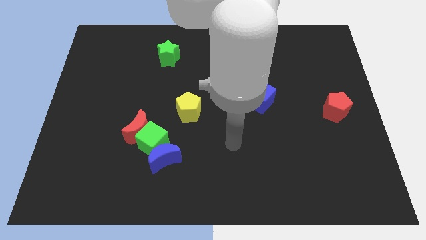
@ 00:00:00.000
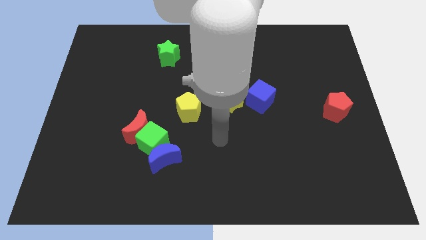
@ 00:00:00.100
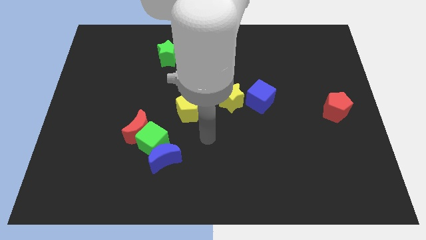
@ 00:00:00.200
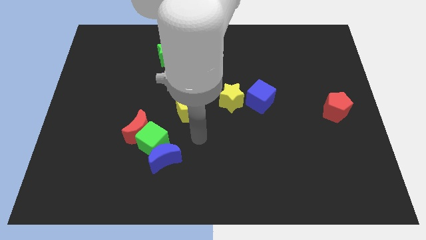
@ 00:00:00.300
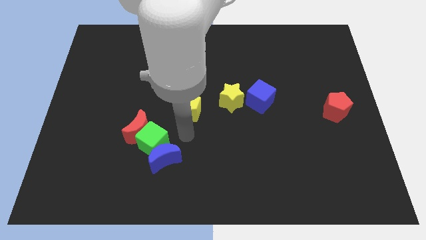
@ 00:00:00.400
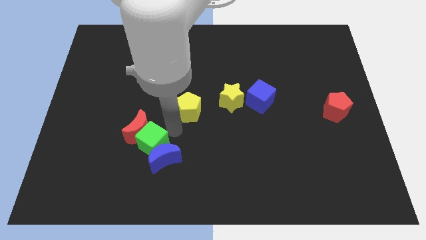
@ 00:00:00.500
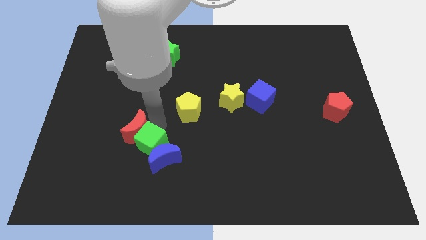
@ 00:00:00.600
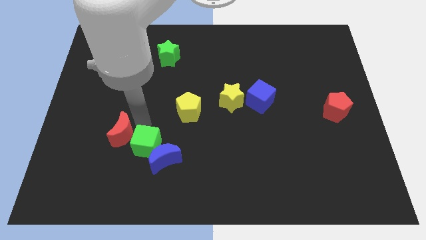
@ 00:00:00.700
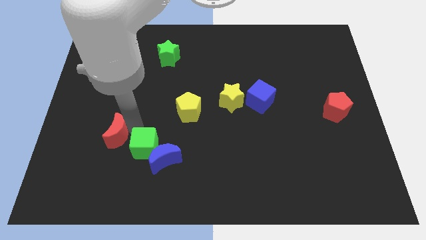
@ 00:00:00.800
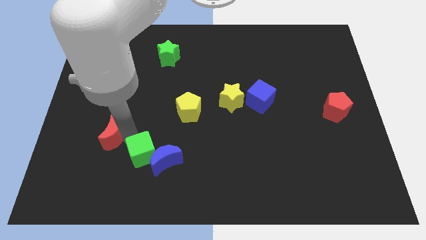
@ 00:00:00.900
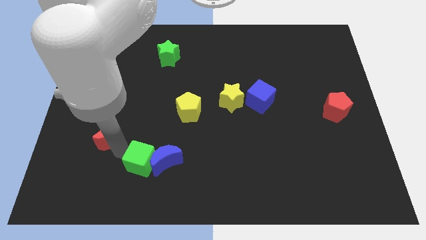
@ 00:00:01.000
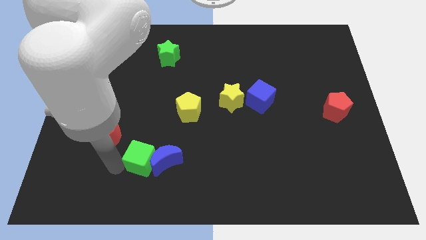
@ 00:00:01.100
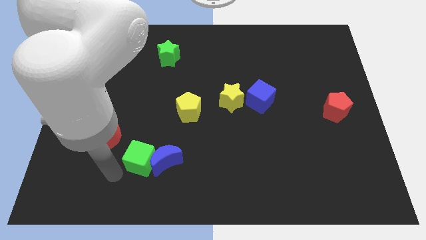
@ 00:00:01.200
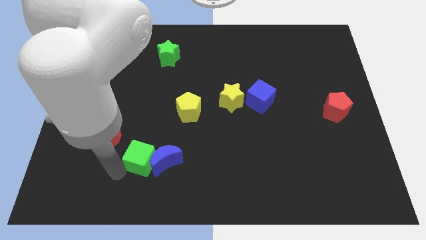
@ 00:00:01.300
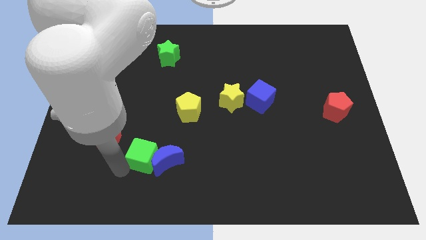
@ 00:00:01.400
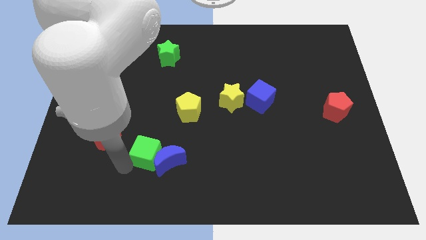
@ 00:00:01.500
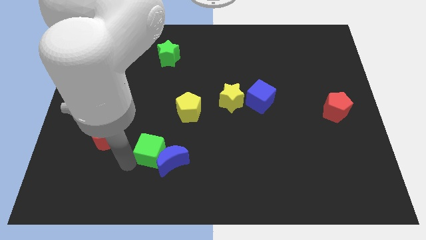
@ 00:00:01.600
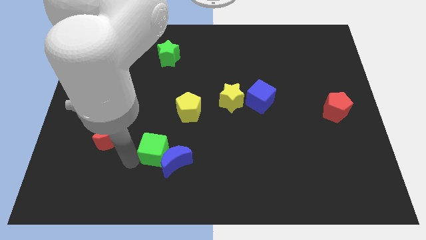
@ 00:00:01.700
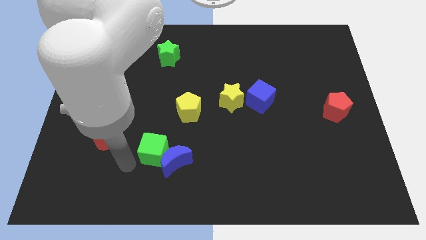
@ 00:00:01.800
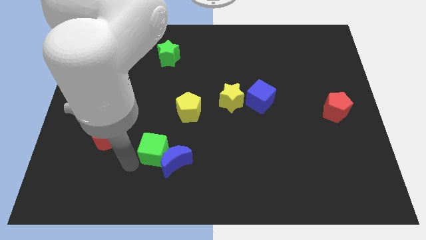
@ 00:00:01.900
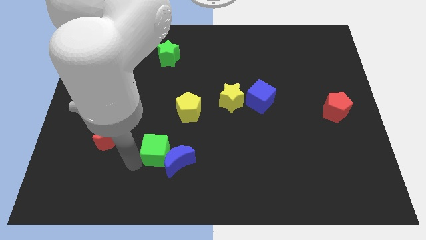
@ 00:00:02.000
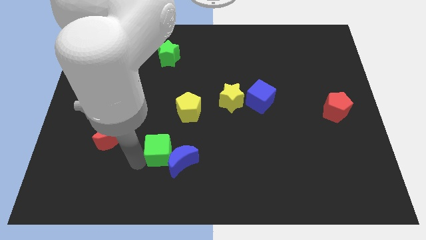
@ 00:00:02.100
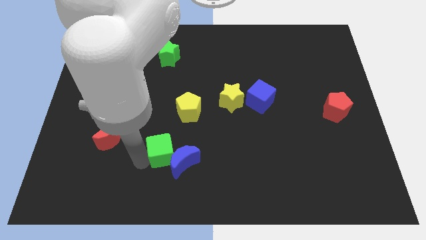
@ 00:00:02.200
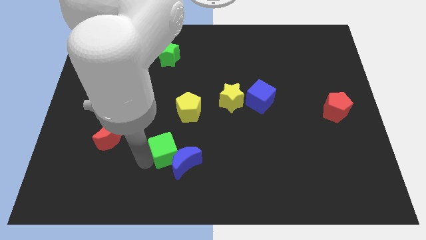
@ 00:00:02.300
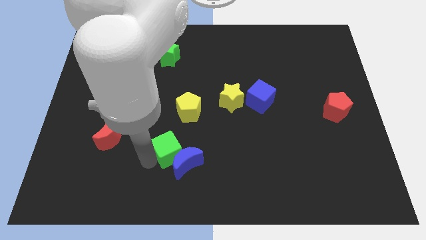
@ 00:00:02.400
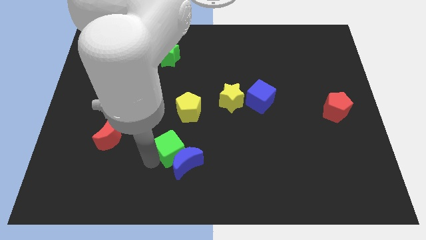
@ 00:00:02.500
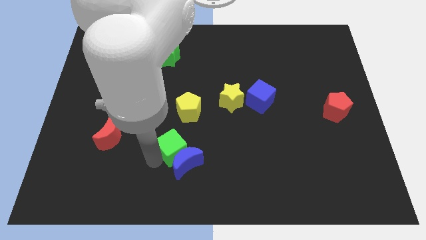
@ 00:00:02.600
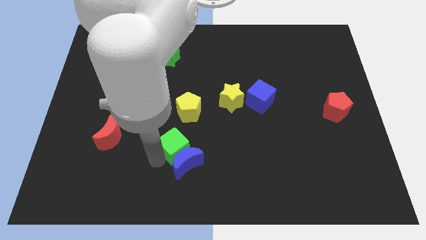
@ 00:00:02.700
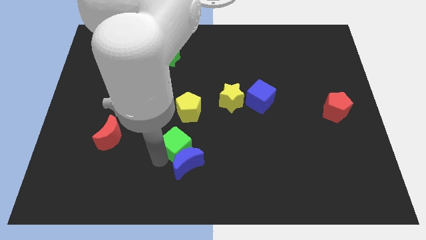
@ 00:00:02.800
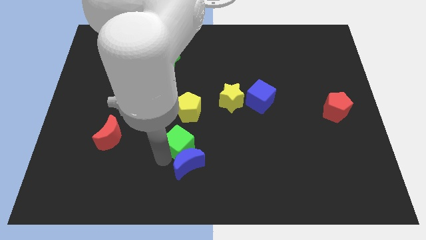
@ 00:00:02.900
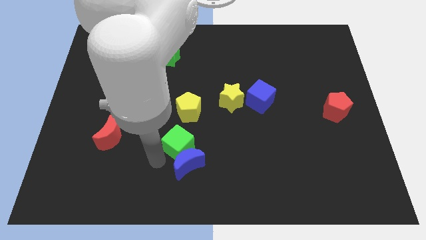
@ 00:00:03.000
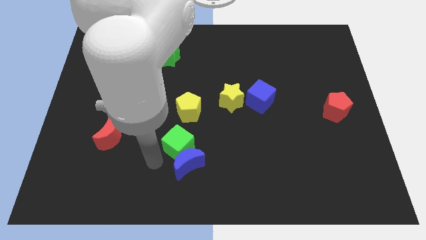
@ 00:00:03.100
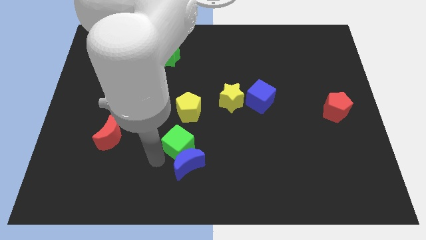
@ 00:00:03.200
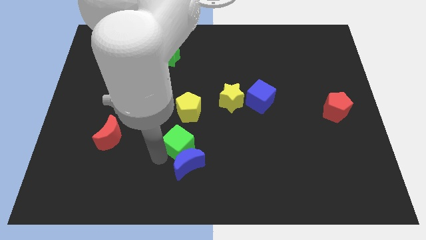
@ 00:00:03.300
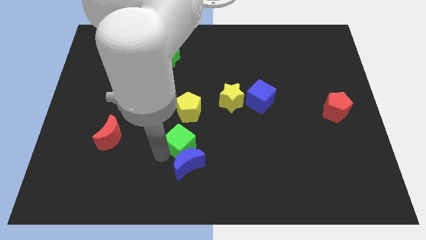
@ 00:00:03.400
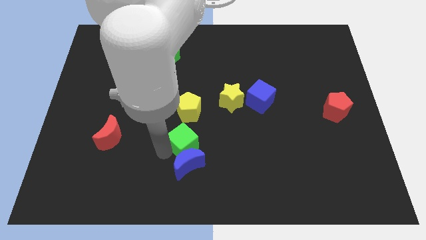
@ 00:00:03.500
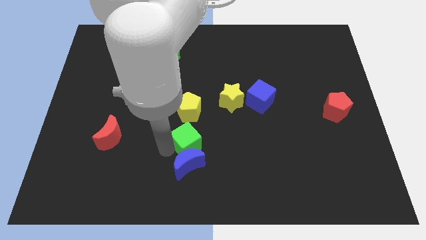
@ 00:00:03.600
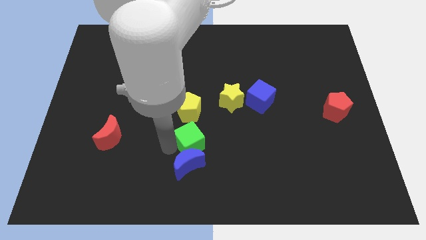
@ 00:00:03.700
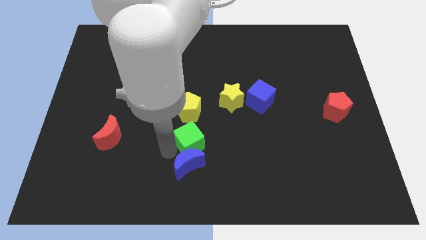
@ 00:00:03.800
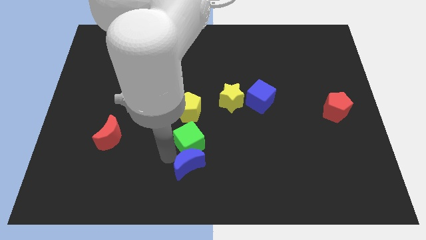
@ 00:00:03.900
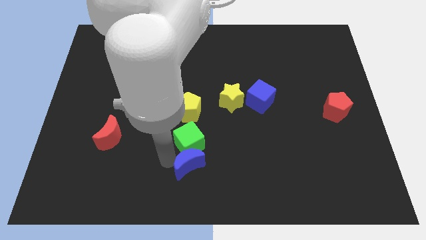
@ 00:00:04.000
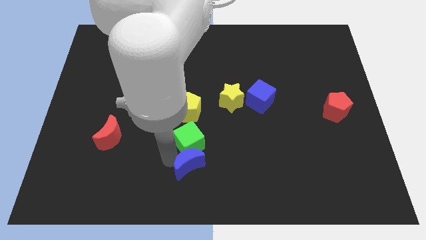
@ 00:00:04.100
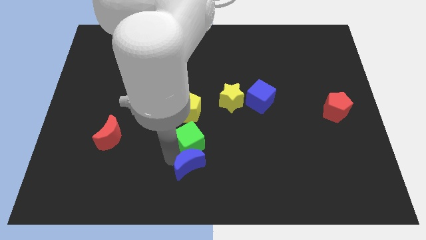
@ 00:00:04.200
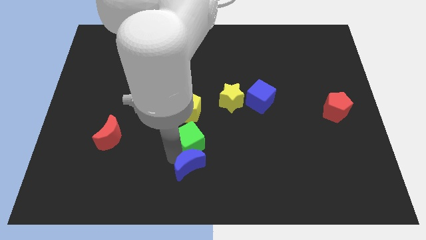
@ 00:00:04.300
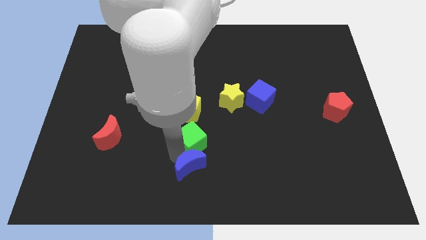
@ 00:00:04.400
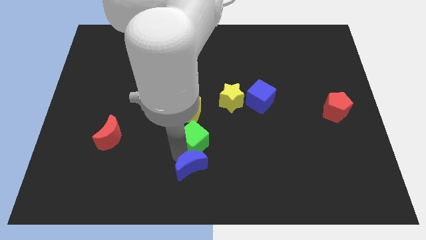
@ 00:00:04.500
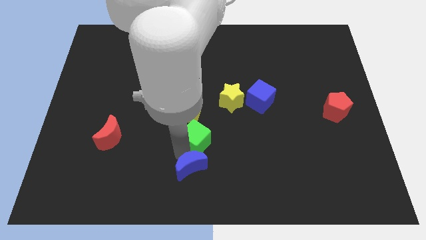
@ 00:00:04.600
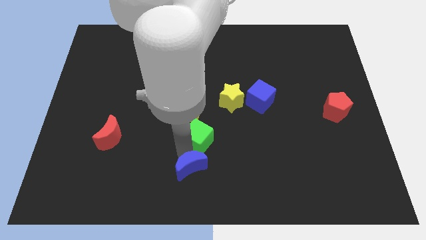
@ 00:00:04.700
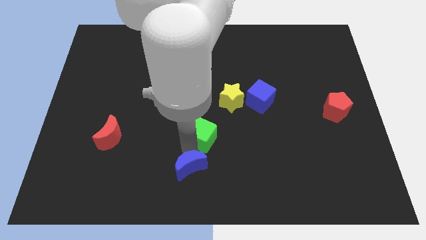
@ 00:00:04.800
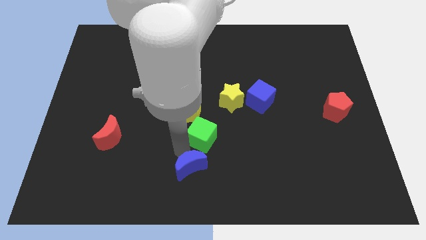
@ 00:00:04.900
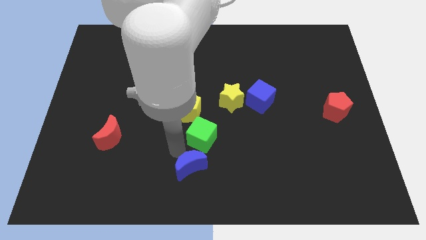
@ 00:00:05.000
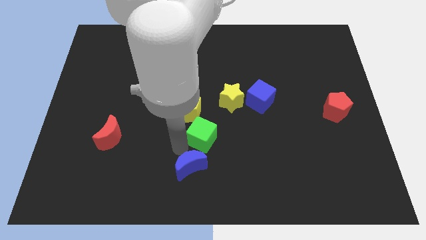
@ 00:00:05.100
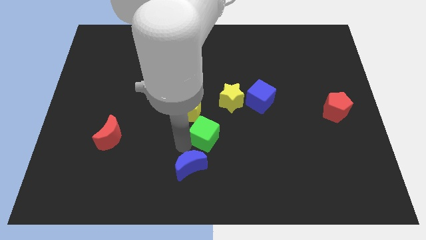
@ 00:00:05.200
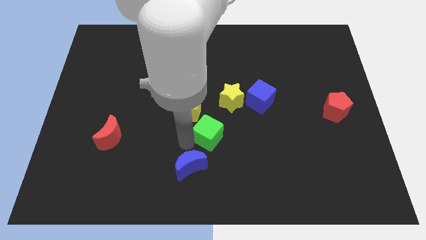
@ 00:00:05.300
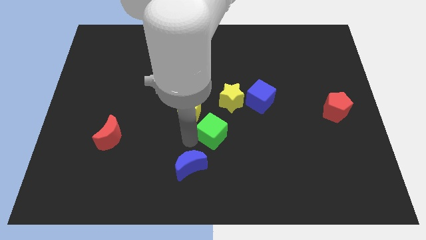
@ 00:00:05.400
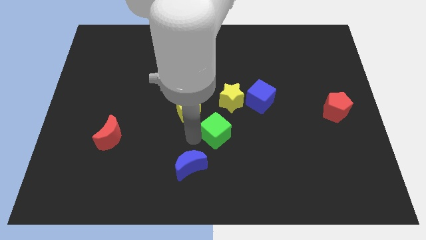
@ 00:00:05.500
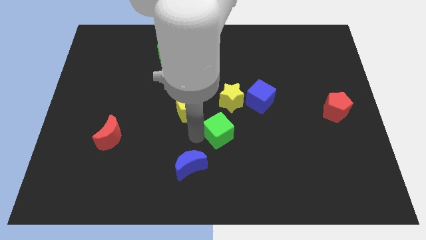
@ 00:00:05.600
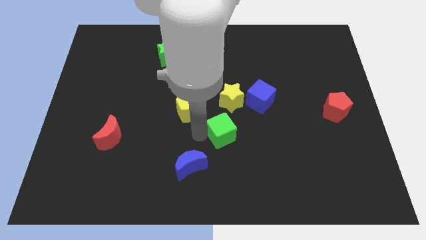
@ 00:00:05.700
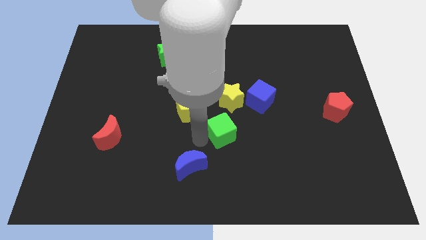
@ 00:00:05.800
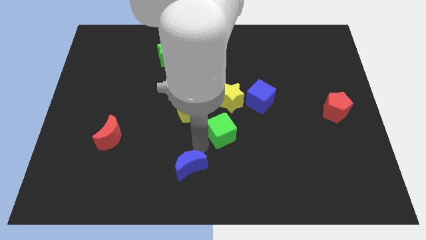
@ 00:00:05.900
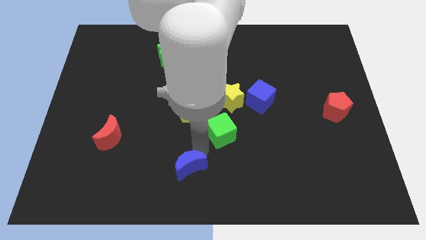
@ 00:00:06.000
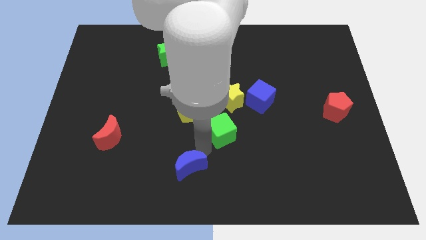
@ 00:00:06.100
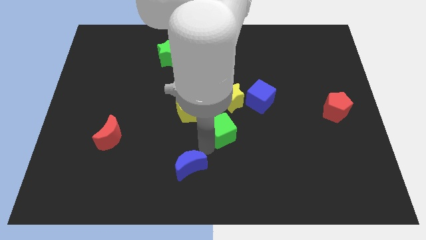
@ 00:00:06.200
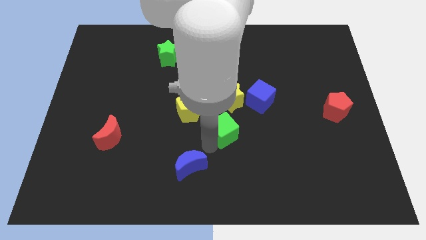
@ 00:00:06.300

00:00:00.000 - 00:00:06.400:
slide the green cube to the bottom left of the blue cube

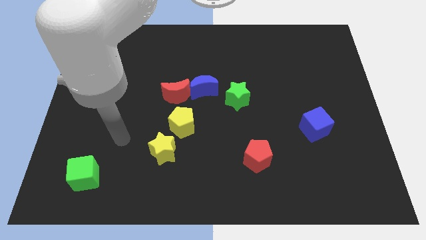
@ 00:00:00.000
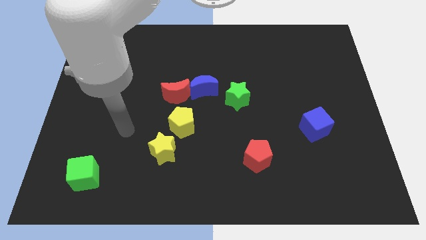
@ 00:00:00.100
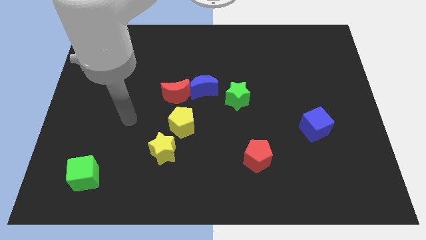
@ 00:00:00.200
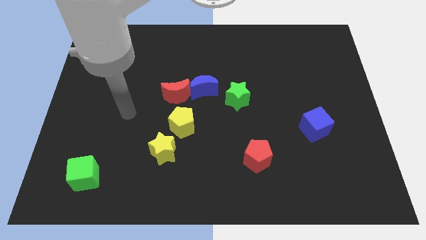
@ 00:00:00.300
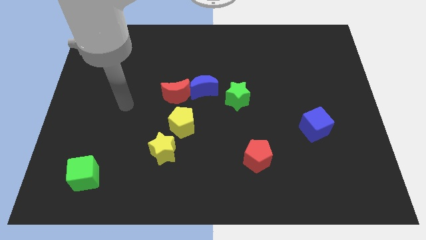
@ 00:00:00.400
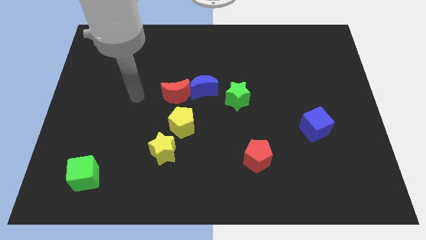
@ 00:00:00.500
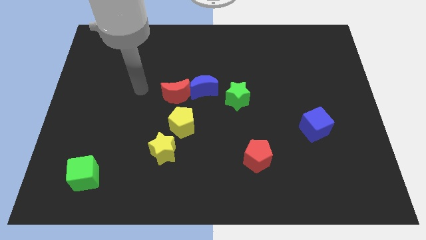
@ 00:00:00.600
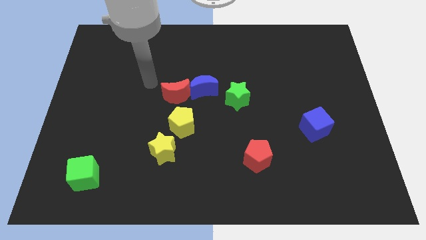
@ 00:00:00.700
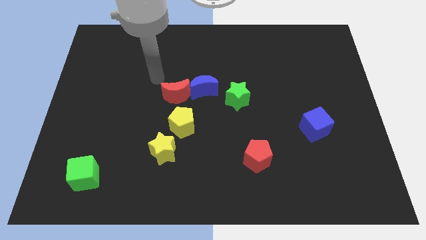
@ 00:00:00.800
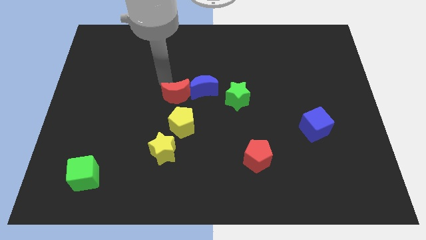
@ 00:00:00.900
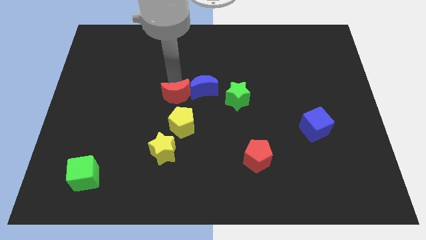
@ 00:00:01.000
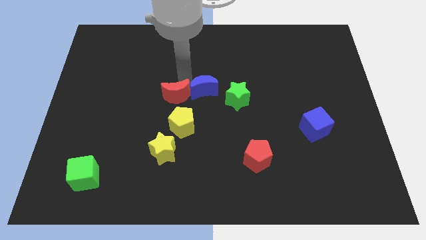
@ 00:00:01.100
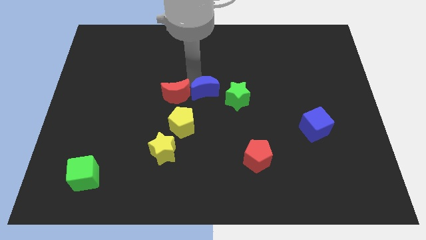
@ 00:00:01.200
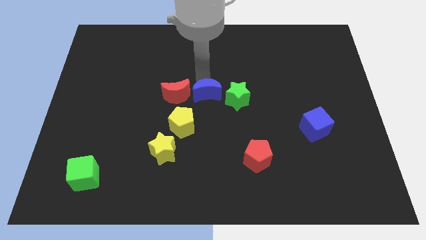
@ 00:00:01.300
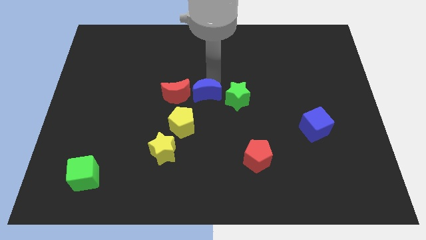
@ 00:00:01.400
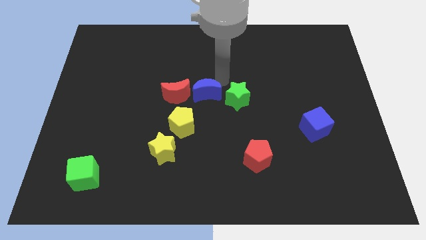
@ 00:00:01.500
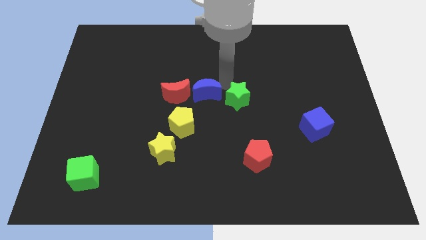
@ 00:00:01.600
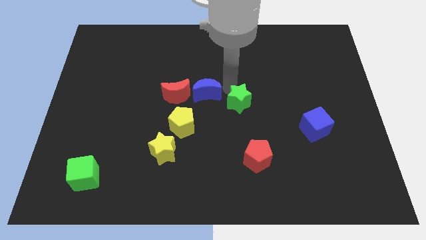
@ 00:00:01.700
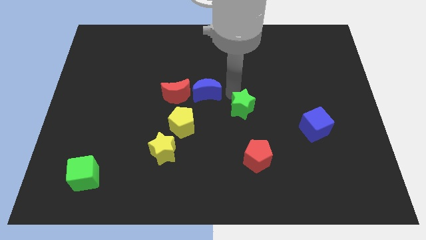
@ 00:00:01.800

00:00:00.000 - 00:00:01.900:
push the green star to the top of the red pentagon
